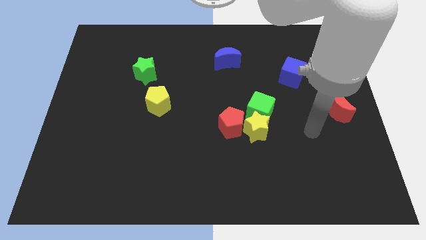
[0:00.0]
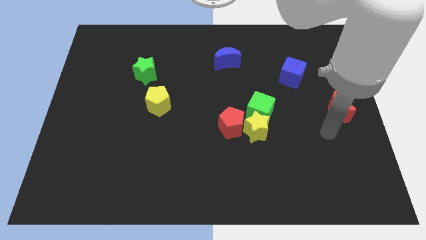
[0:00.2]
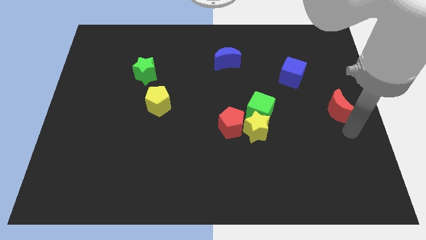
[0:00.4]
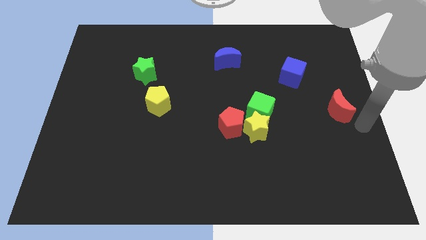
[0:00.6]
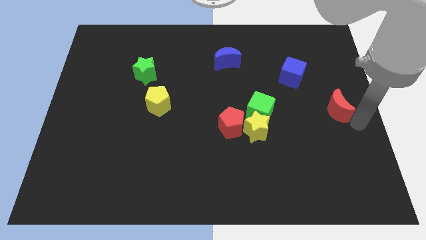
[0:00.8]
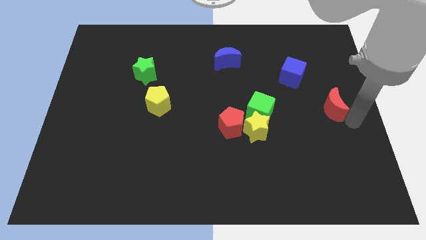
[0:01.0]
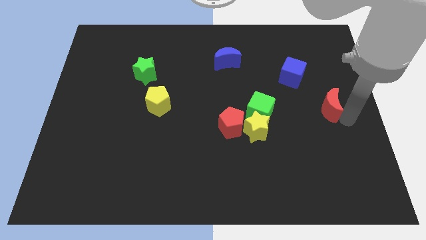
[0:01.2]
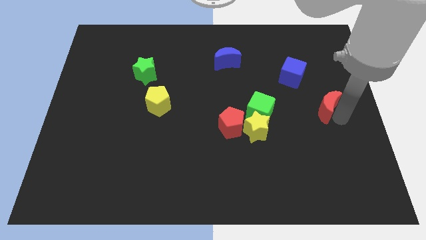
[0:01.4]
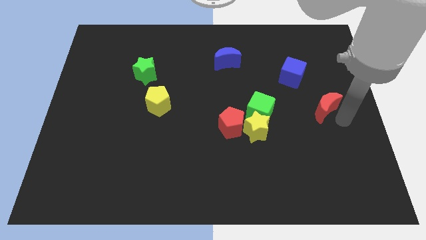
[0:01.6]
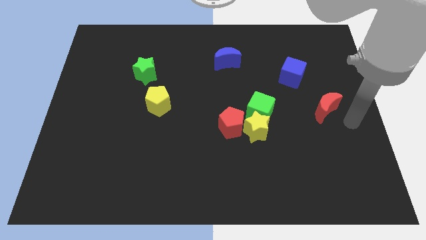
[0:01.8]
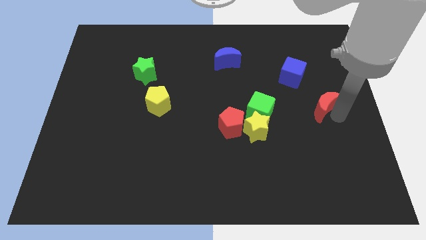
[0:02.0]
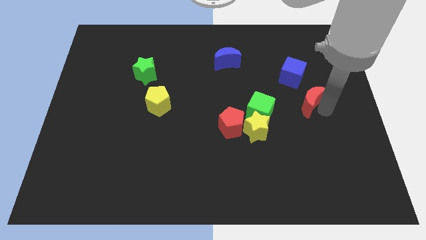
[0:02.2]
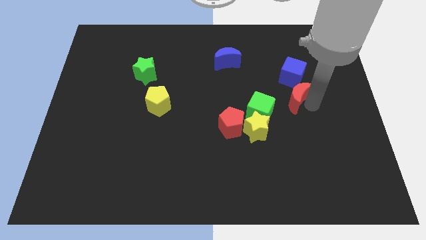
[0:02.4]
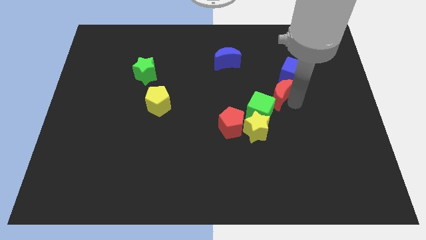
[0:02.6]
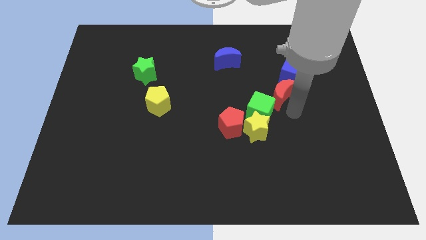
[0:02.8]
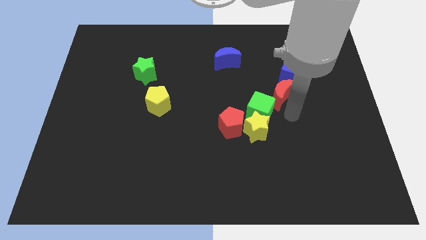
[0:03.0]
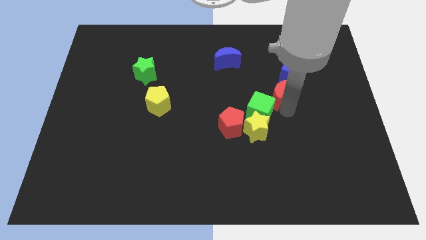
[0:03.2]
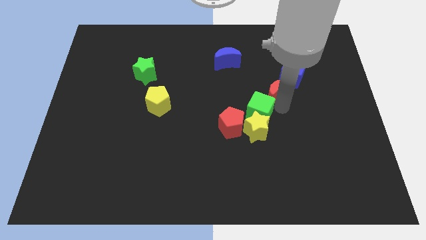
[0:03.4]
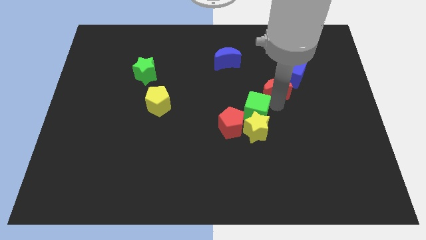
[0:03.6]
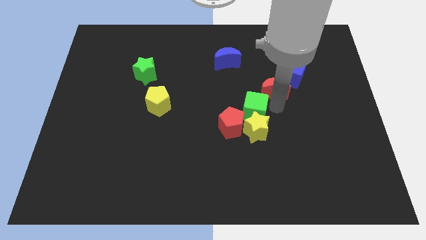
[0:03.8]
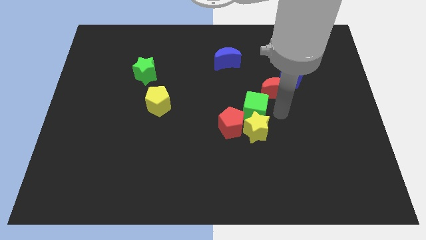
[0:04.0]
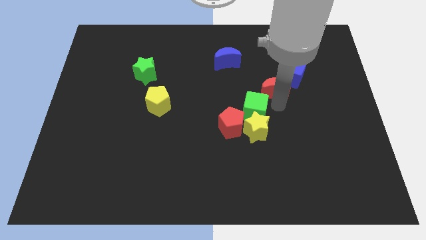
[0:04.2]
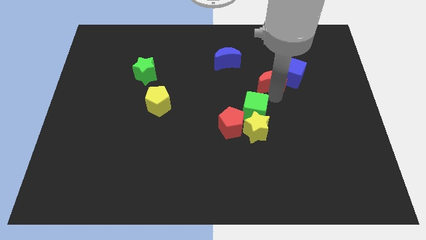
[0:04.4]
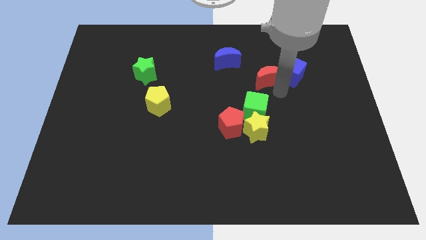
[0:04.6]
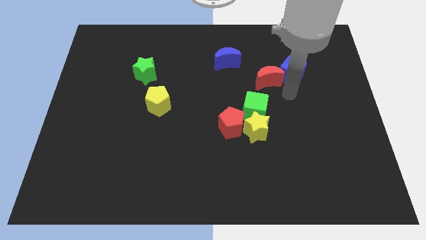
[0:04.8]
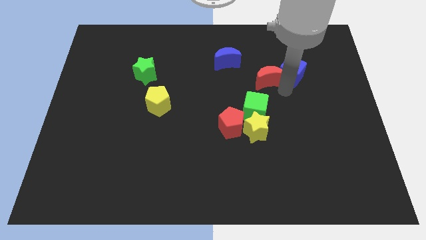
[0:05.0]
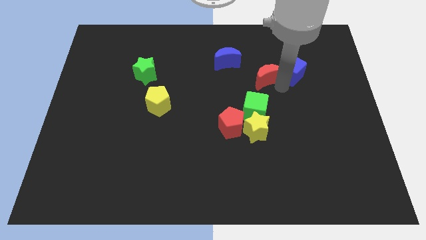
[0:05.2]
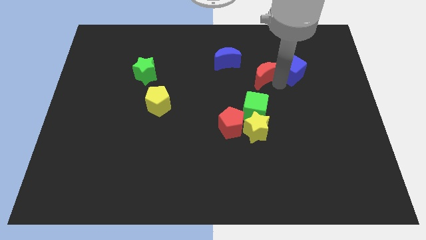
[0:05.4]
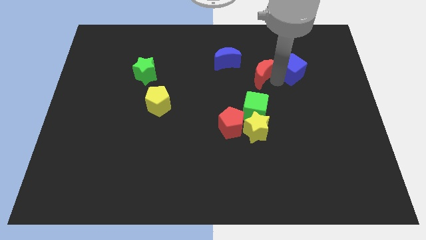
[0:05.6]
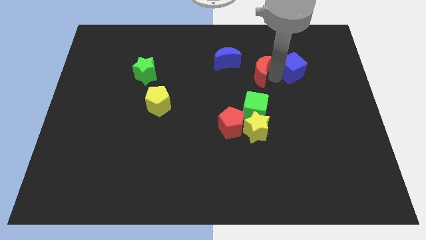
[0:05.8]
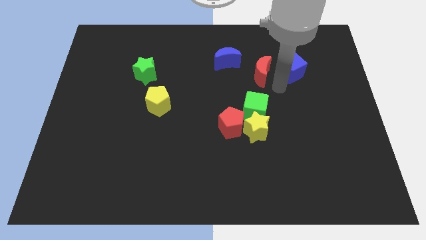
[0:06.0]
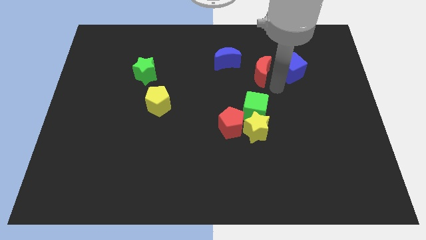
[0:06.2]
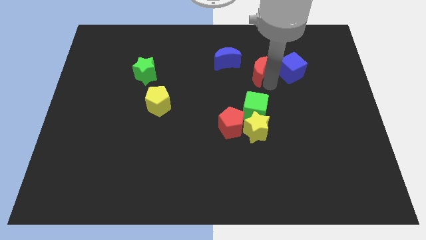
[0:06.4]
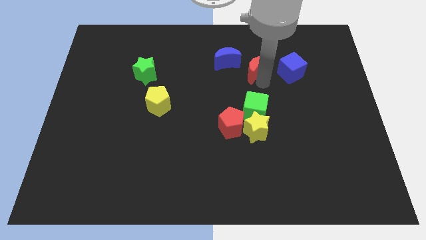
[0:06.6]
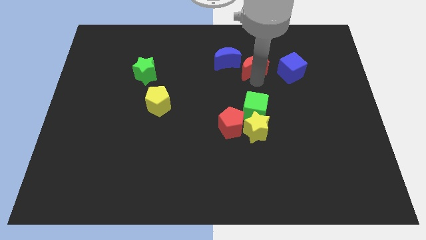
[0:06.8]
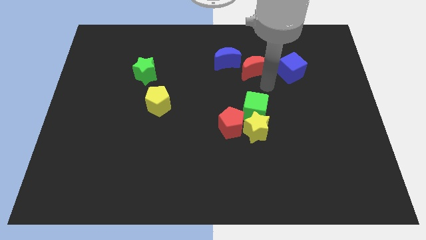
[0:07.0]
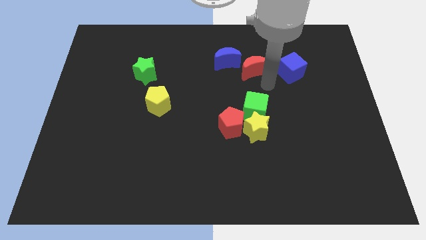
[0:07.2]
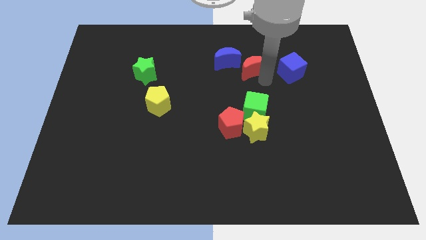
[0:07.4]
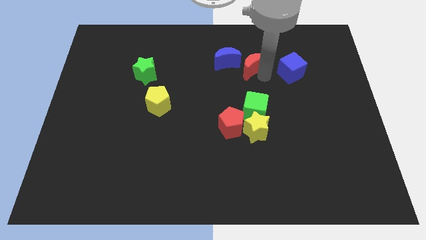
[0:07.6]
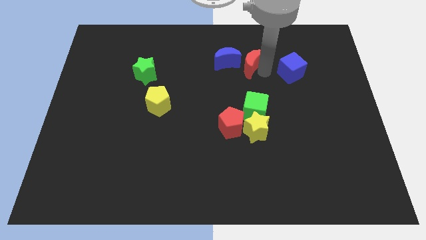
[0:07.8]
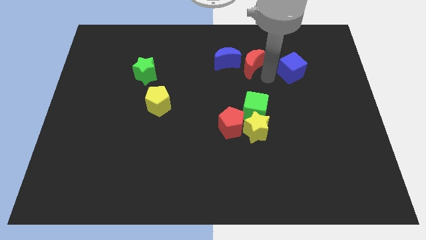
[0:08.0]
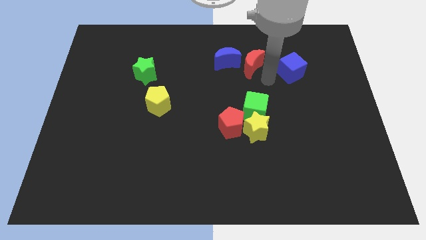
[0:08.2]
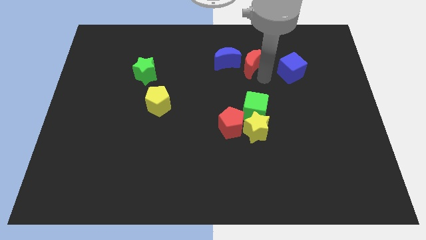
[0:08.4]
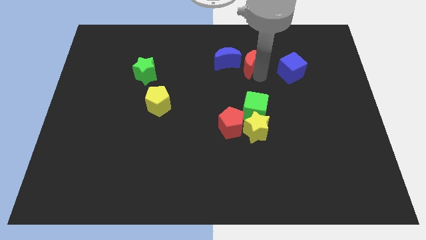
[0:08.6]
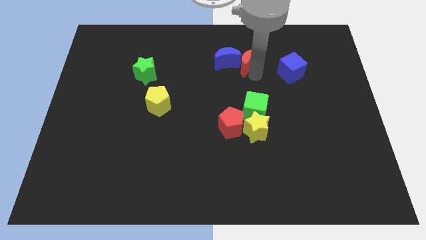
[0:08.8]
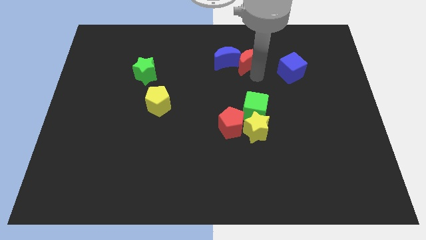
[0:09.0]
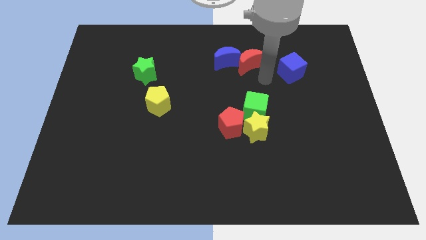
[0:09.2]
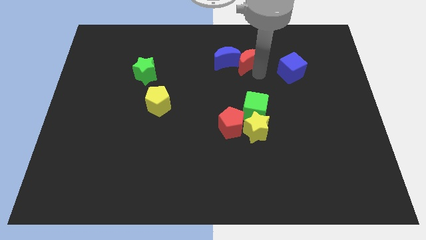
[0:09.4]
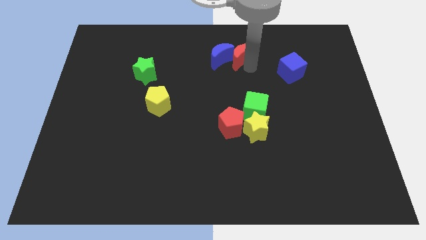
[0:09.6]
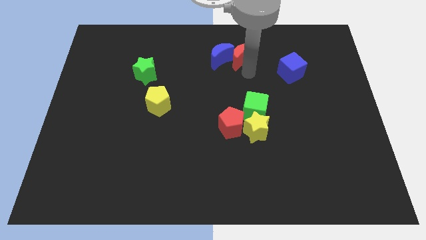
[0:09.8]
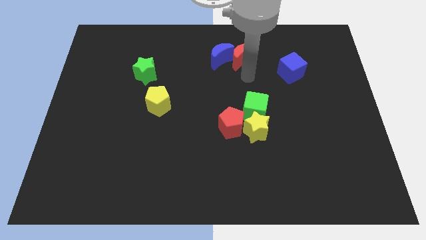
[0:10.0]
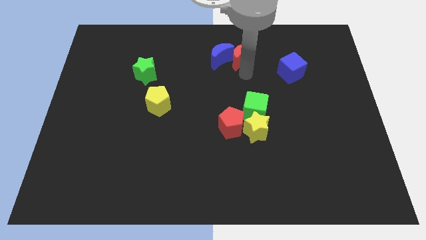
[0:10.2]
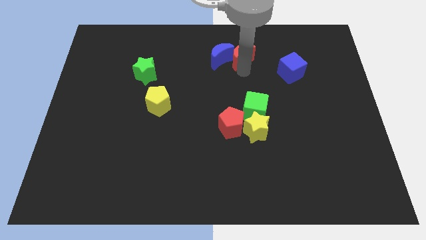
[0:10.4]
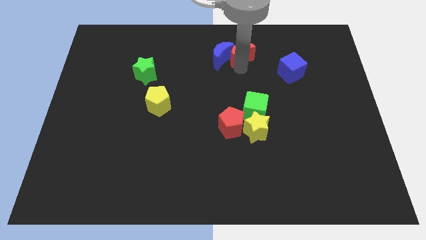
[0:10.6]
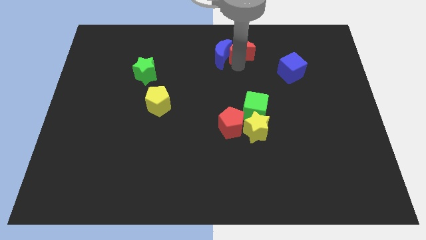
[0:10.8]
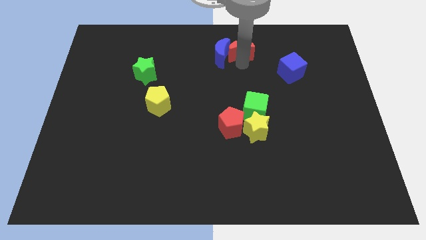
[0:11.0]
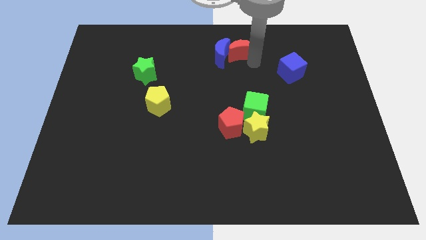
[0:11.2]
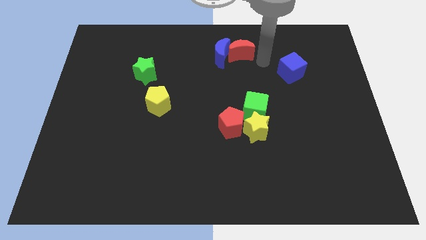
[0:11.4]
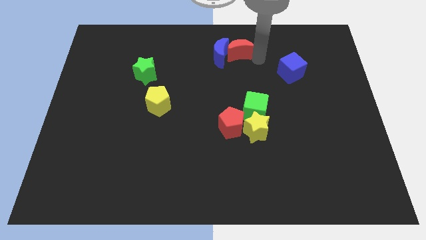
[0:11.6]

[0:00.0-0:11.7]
put the red moon to the top

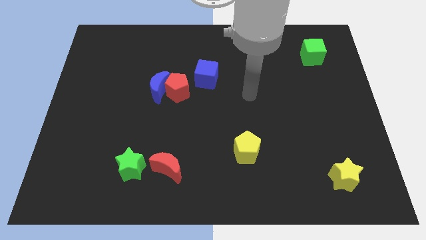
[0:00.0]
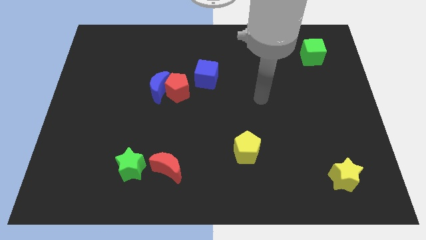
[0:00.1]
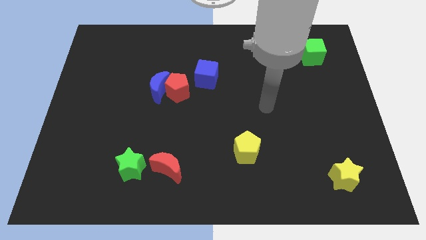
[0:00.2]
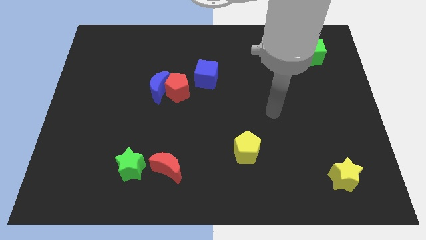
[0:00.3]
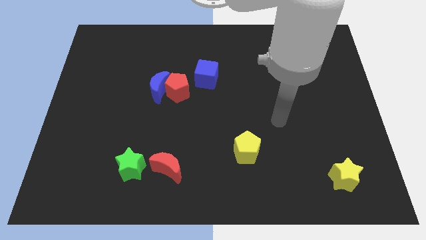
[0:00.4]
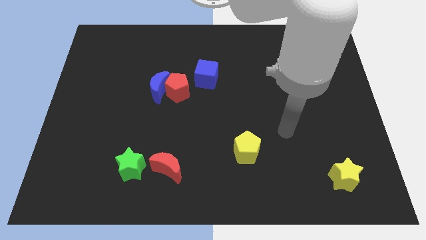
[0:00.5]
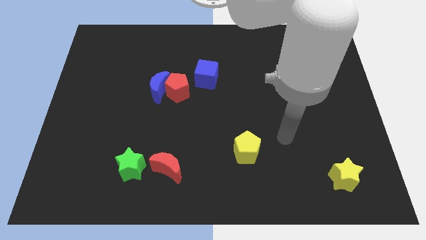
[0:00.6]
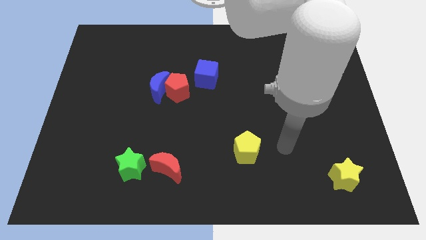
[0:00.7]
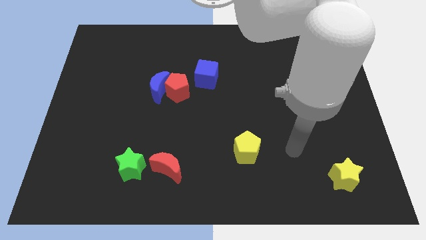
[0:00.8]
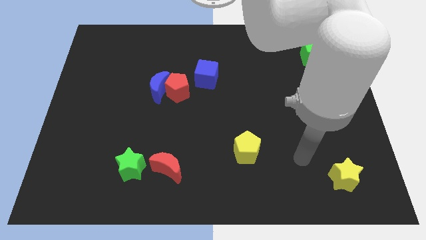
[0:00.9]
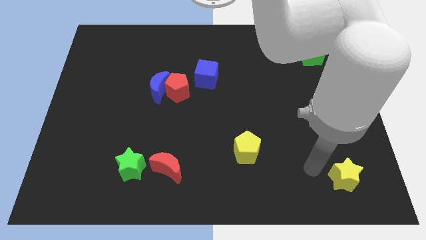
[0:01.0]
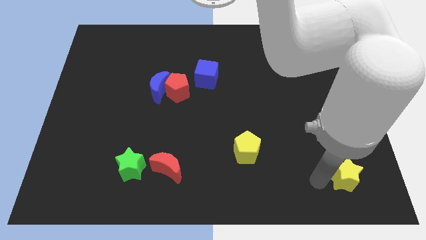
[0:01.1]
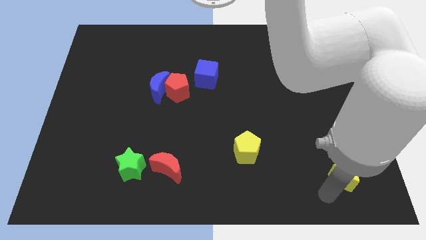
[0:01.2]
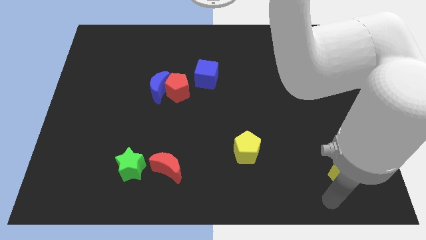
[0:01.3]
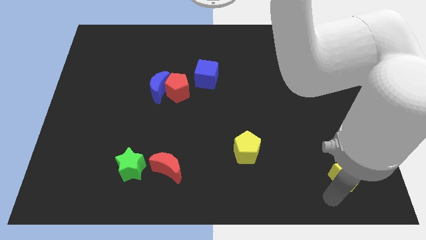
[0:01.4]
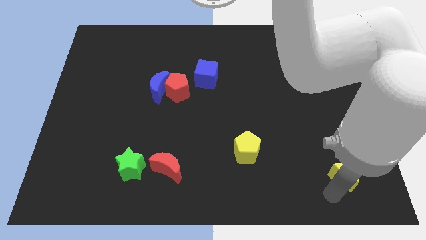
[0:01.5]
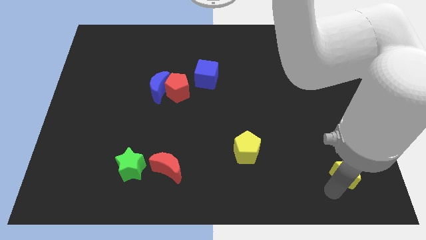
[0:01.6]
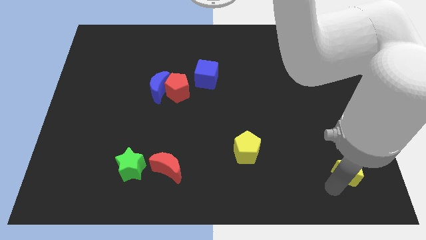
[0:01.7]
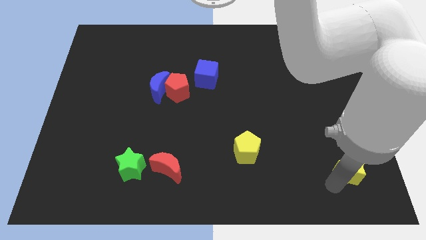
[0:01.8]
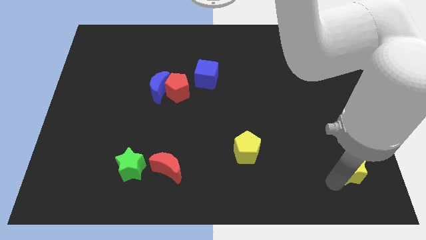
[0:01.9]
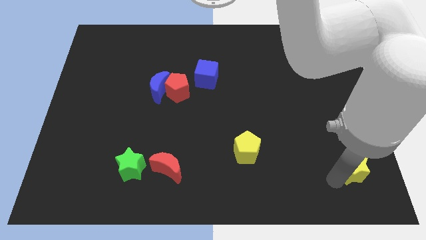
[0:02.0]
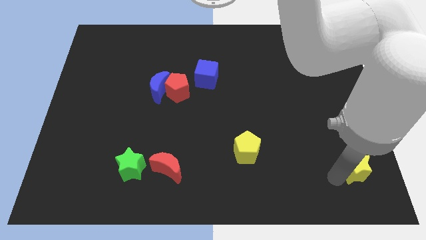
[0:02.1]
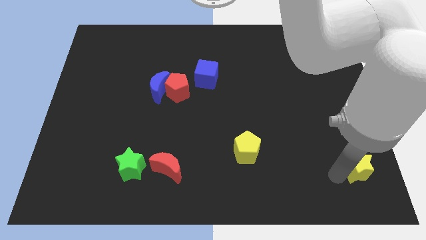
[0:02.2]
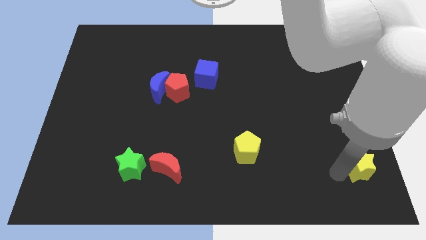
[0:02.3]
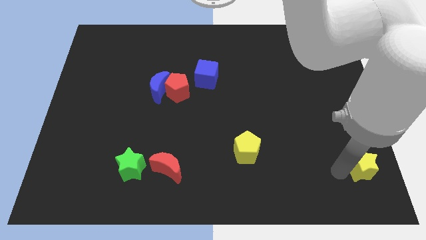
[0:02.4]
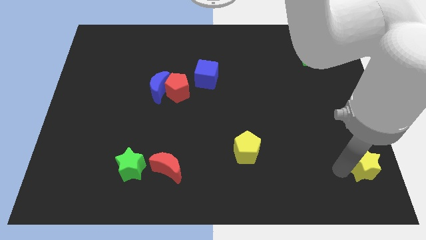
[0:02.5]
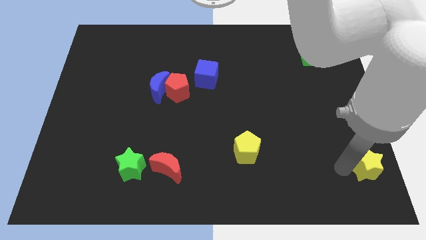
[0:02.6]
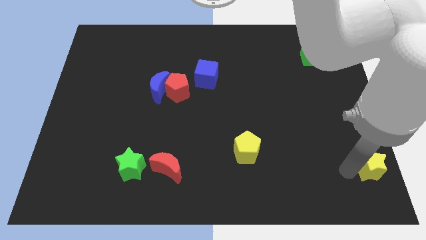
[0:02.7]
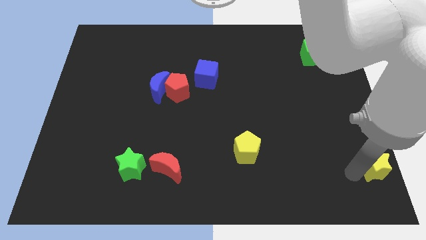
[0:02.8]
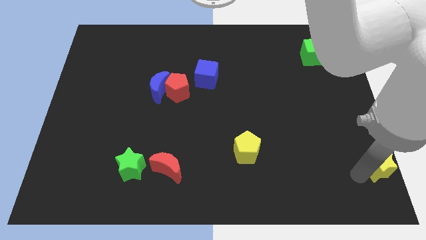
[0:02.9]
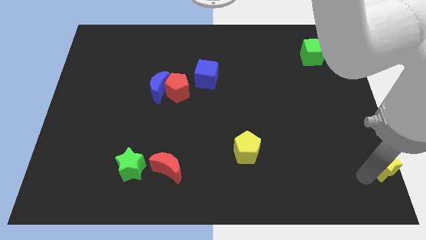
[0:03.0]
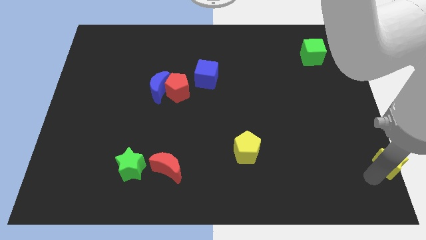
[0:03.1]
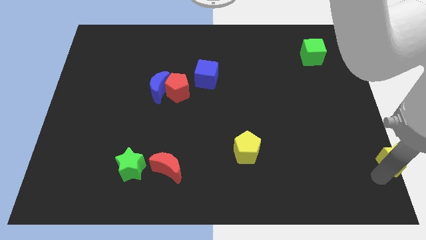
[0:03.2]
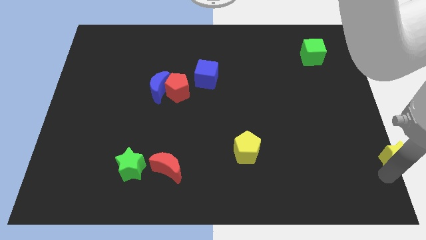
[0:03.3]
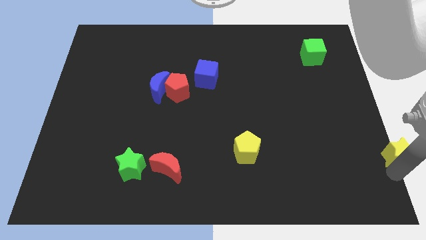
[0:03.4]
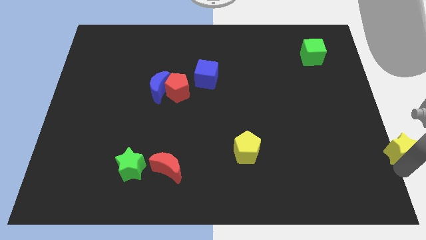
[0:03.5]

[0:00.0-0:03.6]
move the yellow star to the right side of the board
